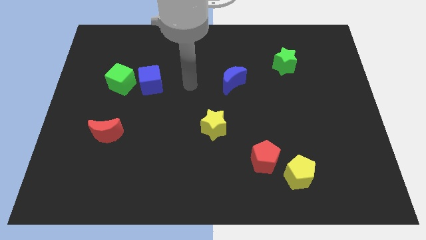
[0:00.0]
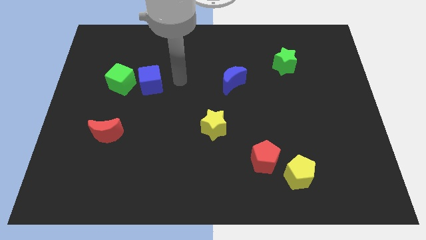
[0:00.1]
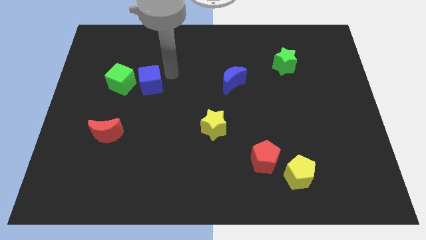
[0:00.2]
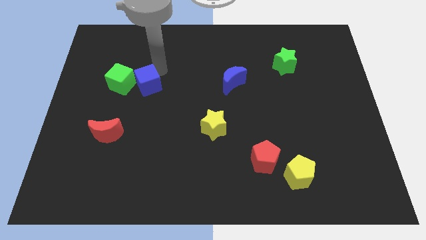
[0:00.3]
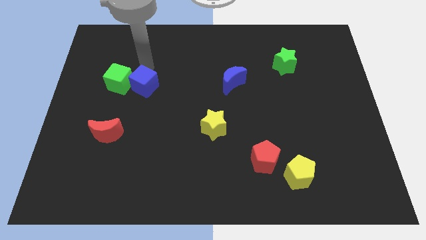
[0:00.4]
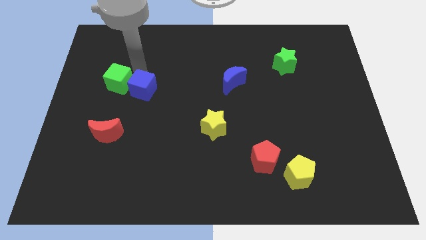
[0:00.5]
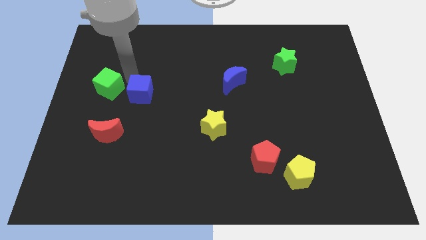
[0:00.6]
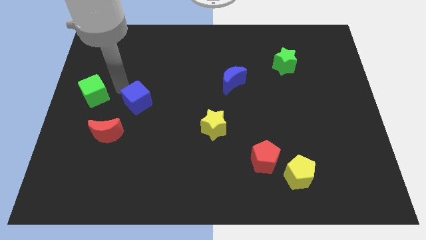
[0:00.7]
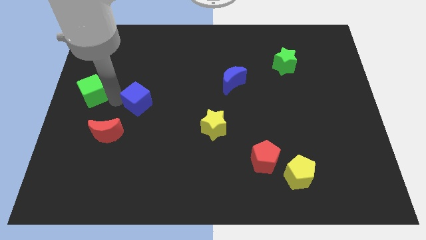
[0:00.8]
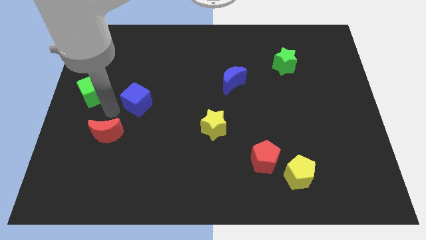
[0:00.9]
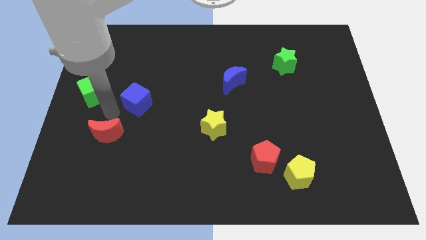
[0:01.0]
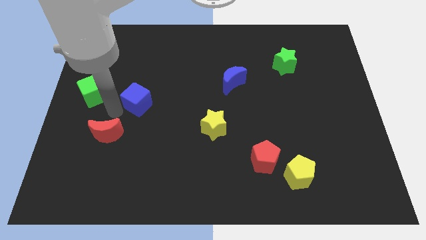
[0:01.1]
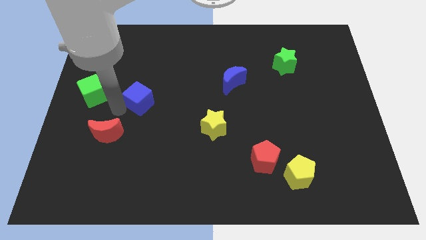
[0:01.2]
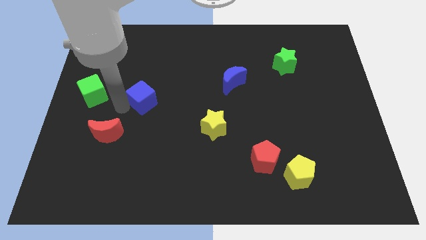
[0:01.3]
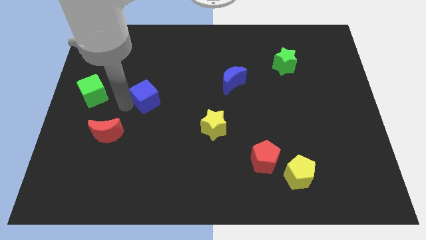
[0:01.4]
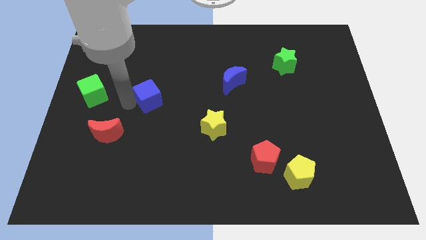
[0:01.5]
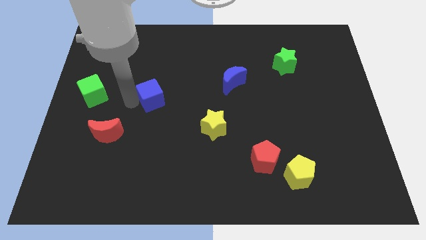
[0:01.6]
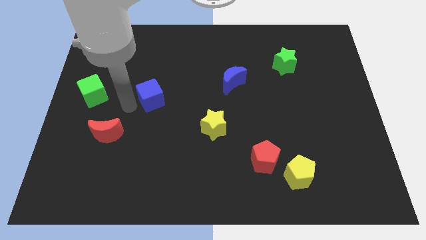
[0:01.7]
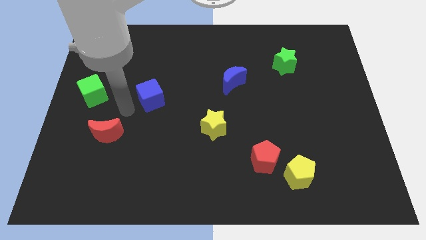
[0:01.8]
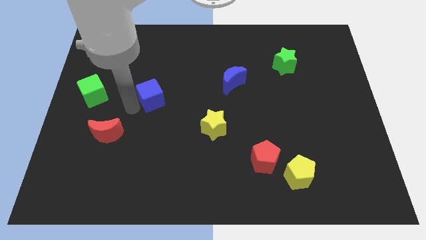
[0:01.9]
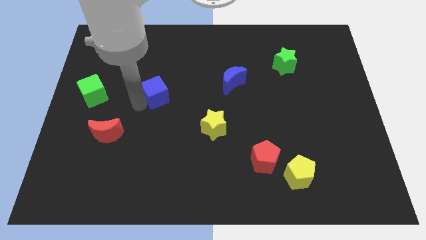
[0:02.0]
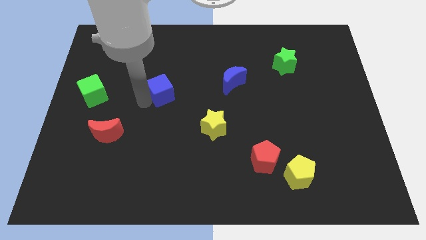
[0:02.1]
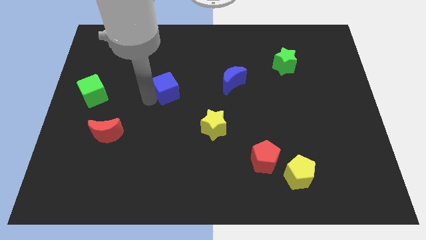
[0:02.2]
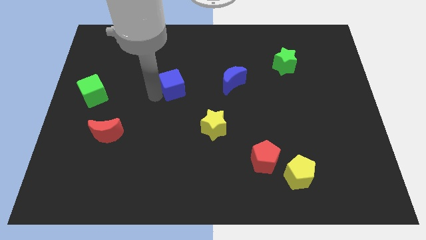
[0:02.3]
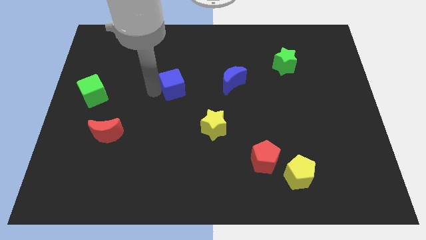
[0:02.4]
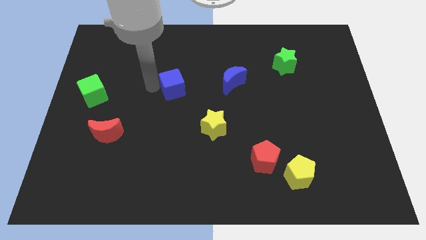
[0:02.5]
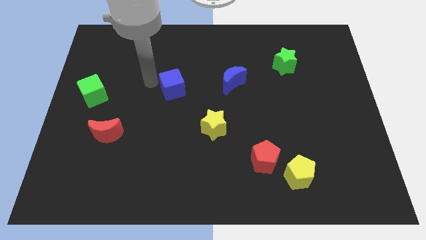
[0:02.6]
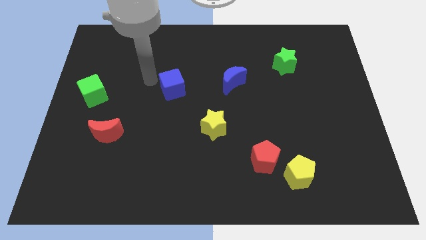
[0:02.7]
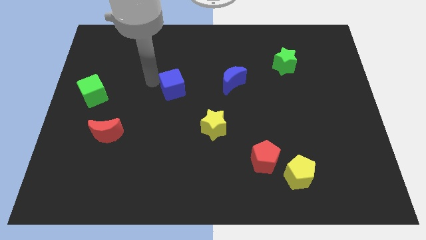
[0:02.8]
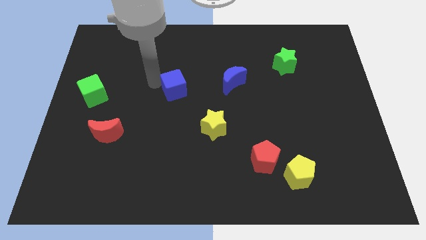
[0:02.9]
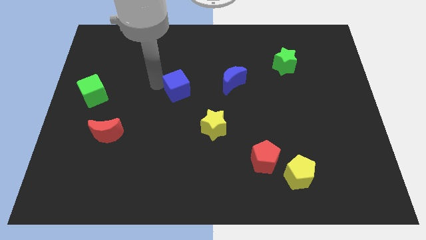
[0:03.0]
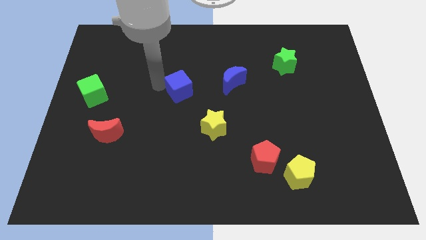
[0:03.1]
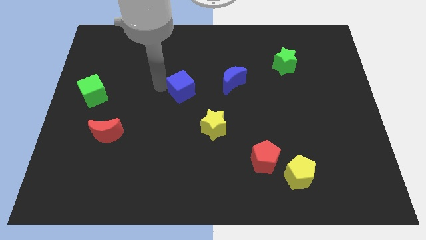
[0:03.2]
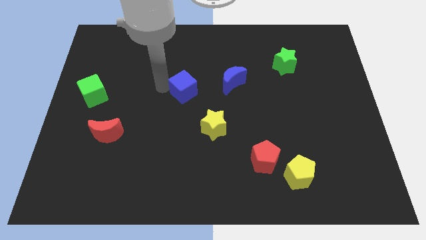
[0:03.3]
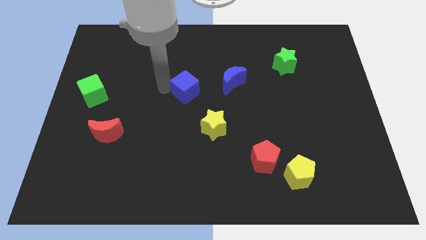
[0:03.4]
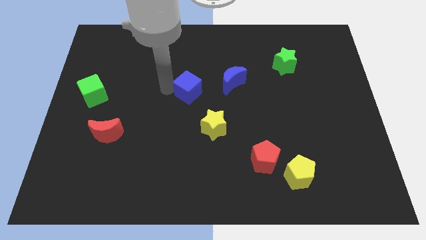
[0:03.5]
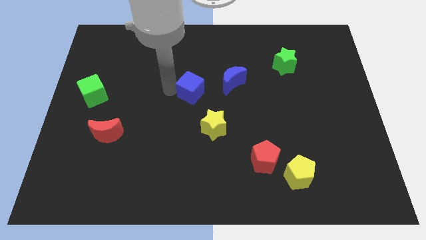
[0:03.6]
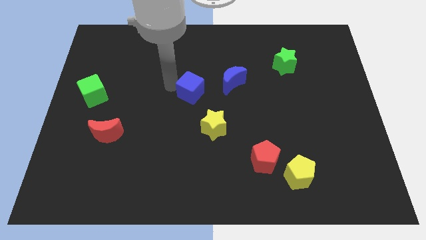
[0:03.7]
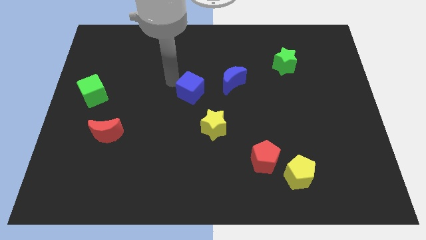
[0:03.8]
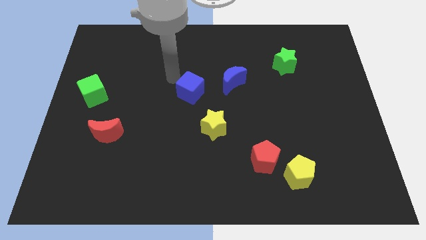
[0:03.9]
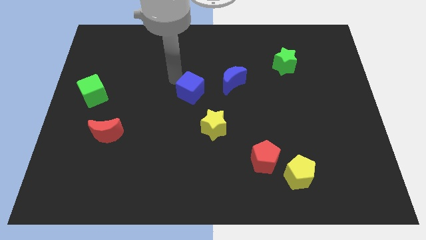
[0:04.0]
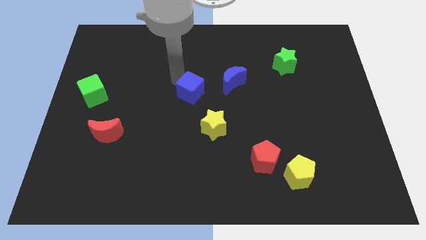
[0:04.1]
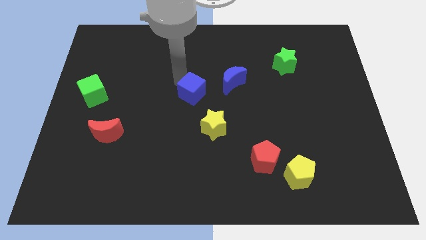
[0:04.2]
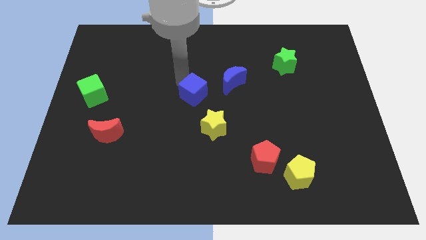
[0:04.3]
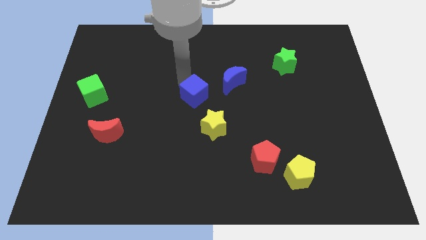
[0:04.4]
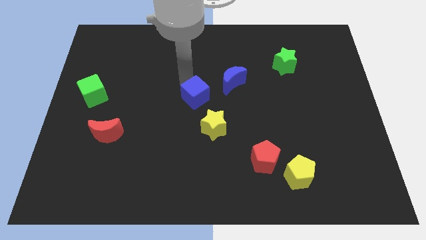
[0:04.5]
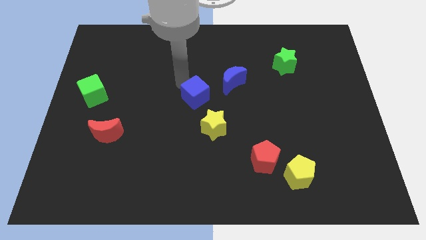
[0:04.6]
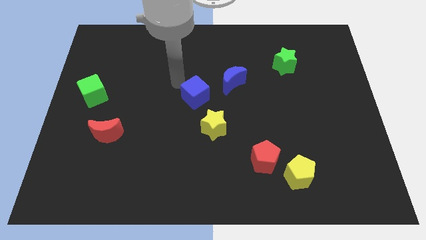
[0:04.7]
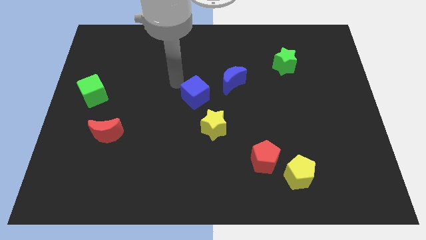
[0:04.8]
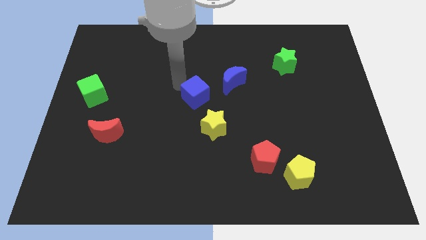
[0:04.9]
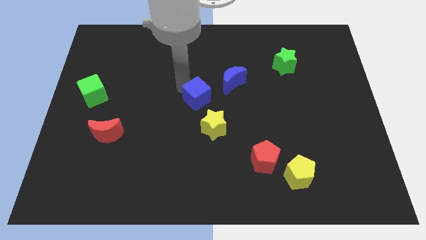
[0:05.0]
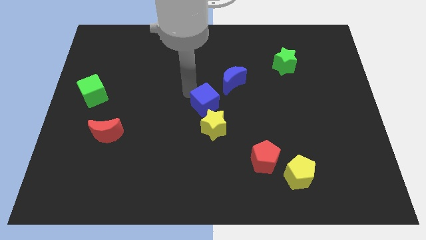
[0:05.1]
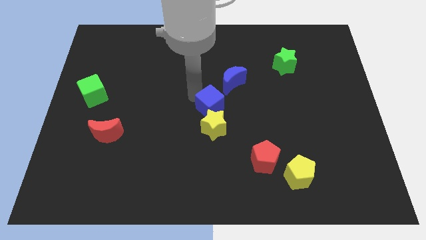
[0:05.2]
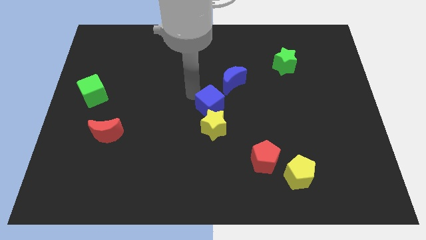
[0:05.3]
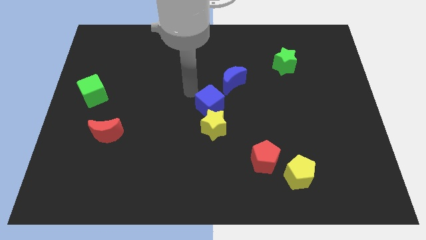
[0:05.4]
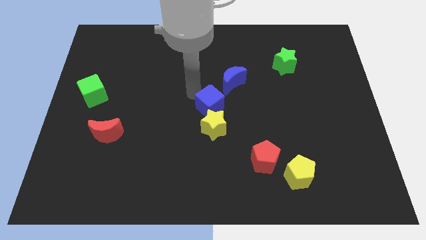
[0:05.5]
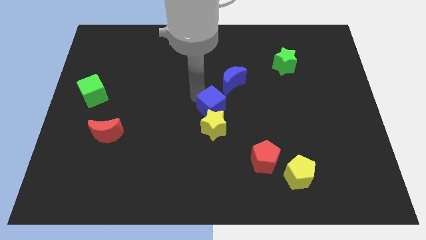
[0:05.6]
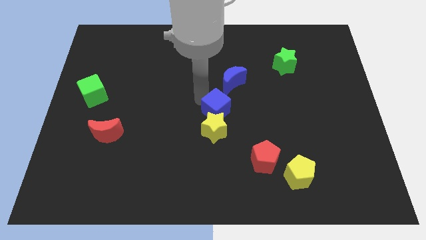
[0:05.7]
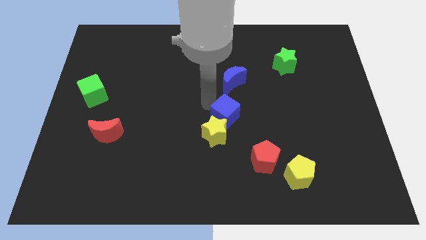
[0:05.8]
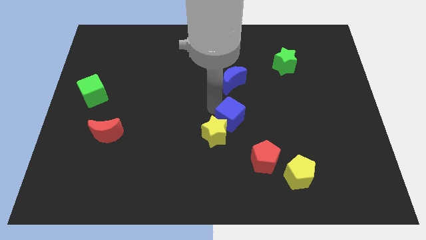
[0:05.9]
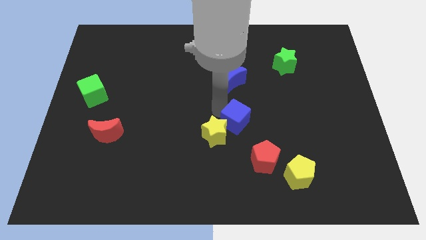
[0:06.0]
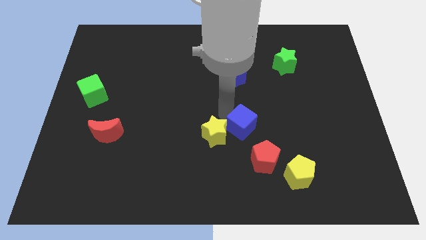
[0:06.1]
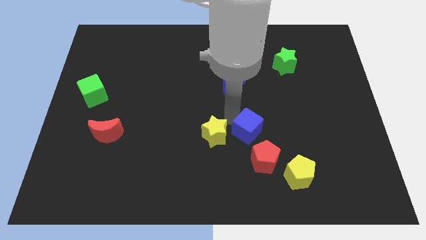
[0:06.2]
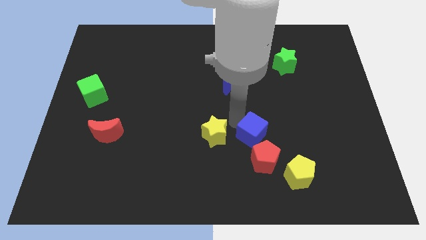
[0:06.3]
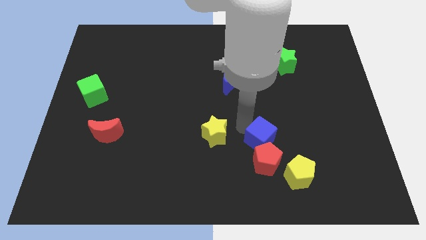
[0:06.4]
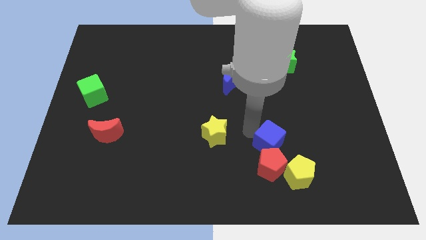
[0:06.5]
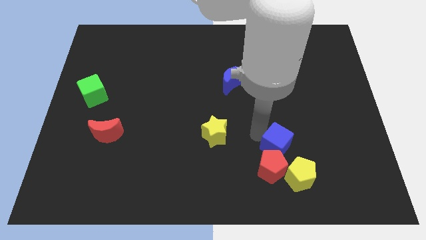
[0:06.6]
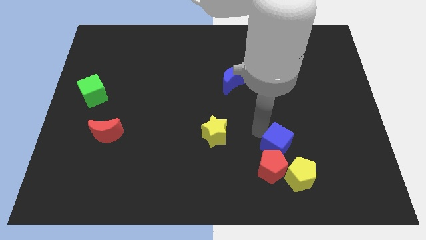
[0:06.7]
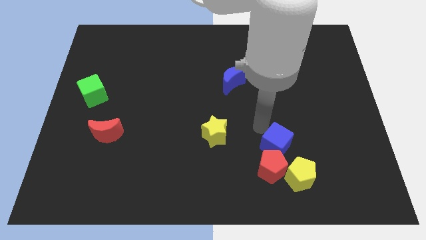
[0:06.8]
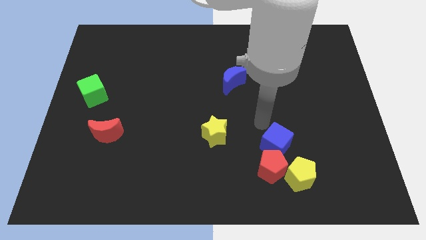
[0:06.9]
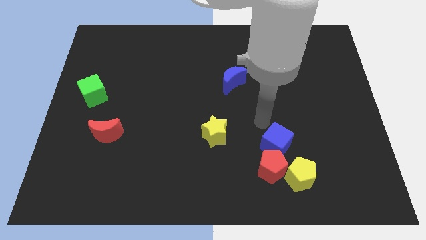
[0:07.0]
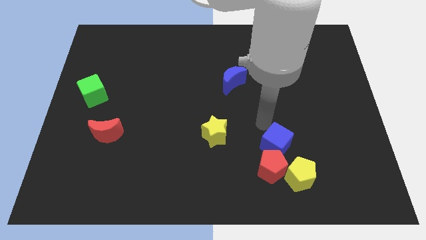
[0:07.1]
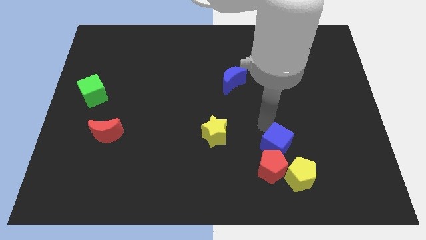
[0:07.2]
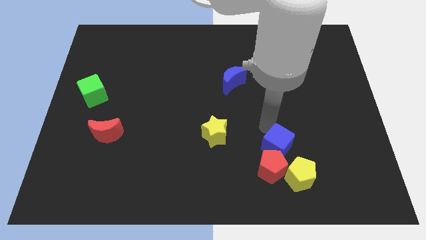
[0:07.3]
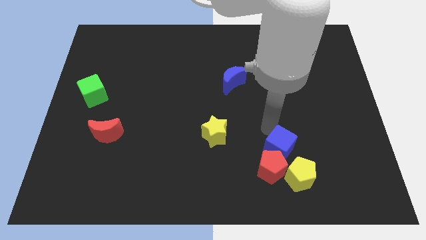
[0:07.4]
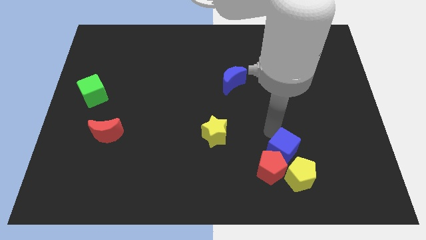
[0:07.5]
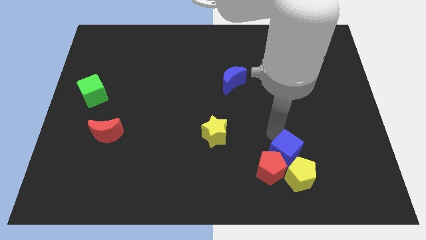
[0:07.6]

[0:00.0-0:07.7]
push the blue cube next to the yellow pentagon

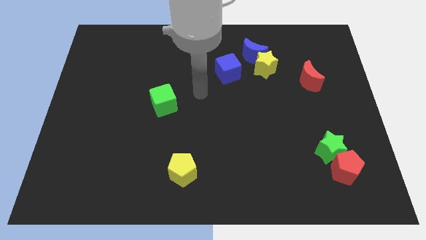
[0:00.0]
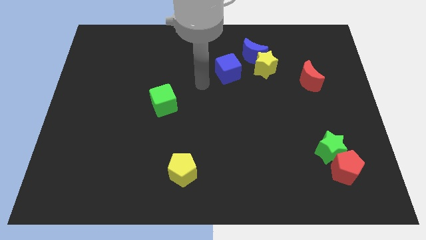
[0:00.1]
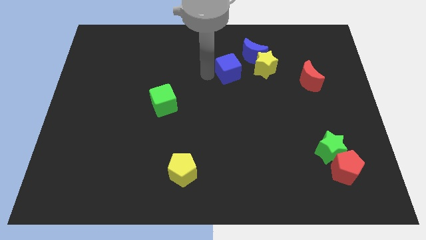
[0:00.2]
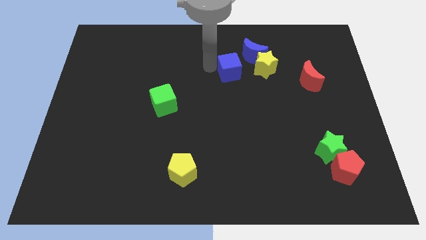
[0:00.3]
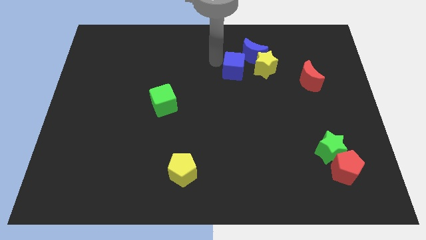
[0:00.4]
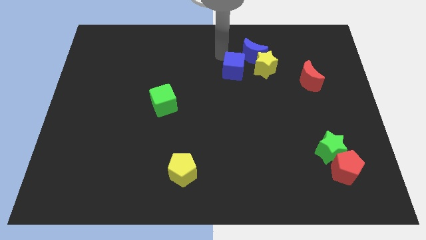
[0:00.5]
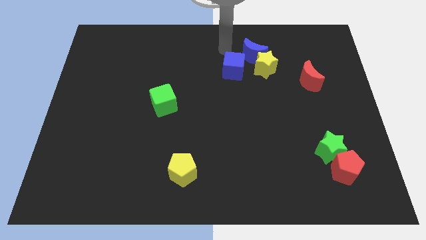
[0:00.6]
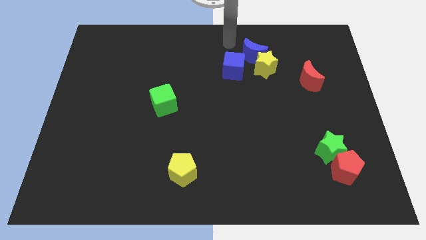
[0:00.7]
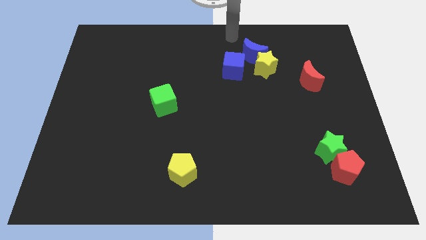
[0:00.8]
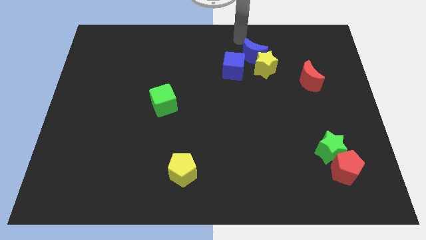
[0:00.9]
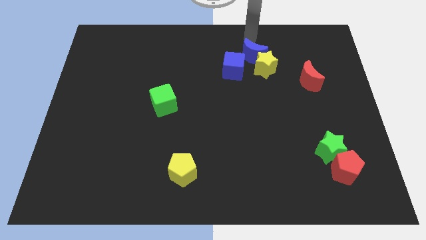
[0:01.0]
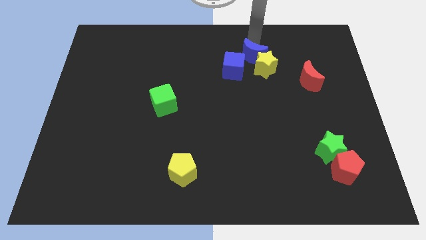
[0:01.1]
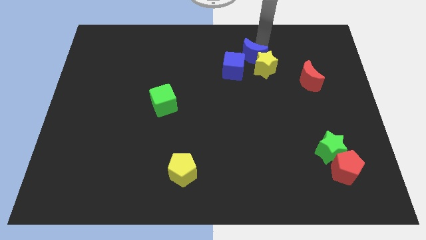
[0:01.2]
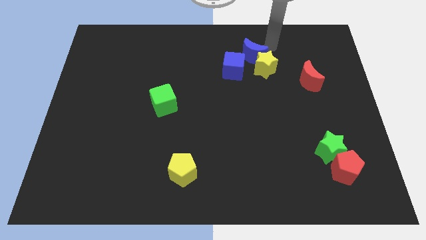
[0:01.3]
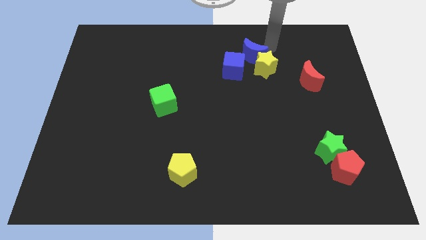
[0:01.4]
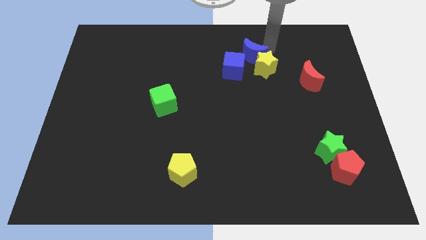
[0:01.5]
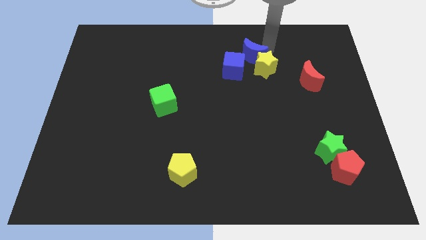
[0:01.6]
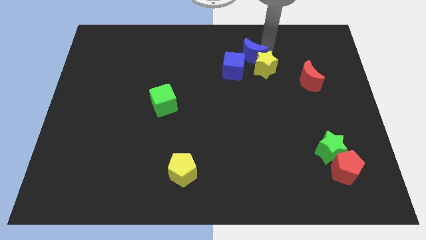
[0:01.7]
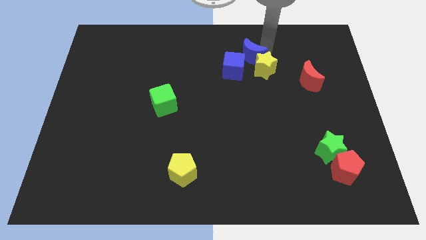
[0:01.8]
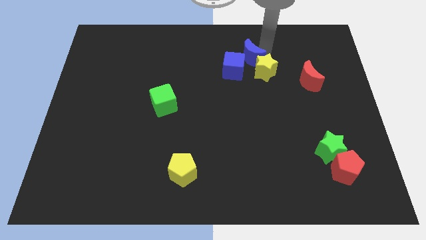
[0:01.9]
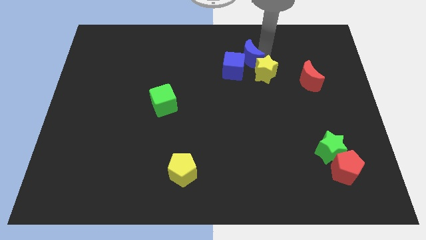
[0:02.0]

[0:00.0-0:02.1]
slide the blue moon close to the blue cube
